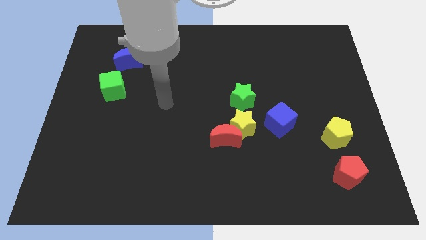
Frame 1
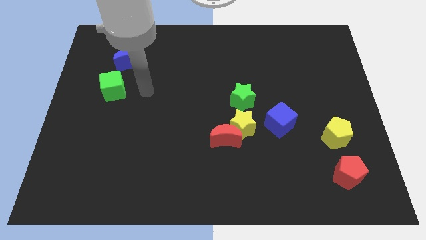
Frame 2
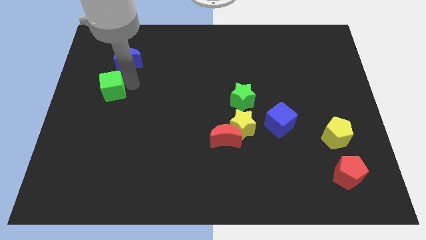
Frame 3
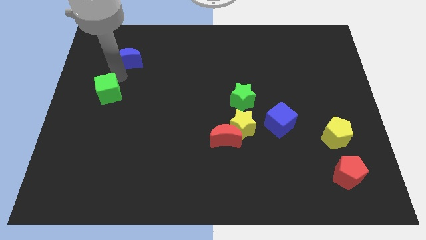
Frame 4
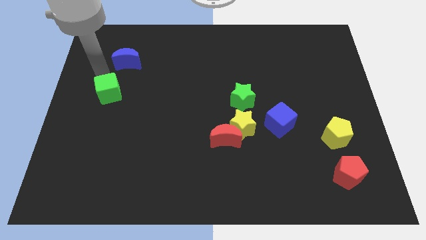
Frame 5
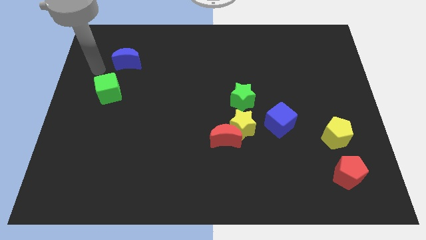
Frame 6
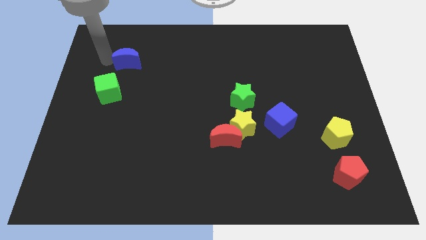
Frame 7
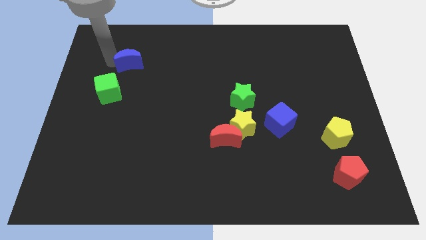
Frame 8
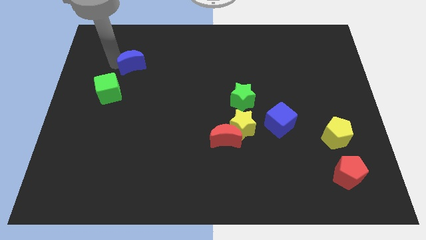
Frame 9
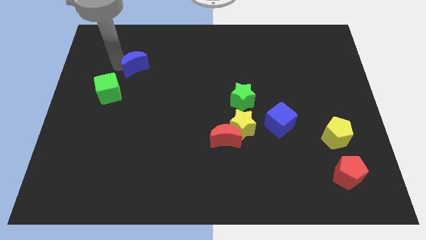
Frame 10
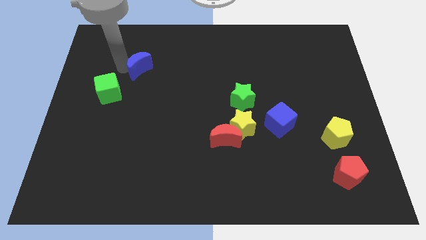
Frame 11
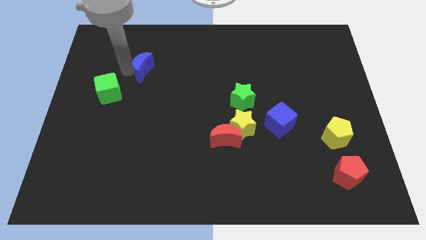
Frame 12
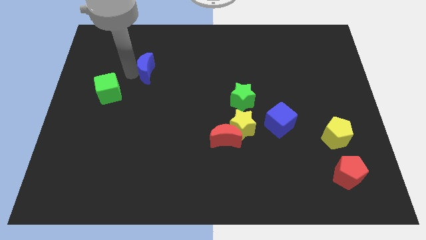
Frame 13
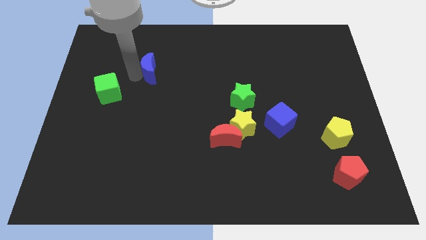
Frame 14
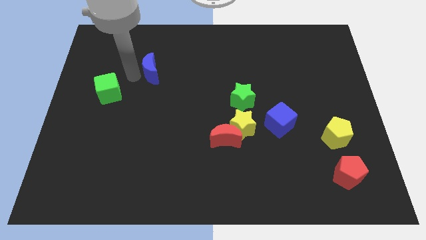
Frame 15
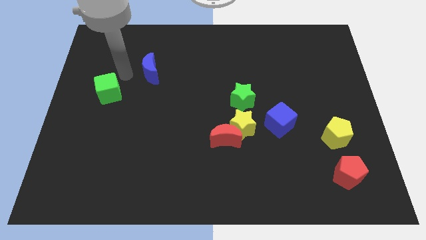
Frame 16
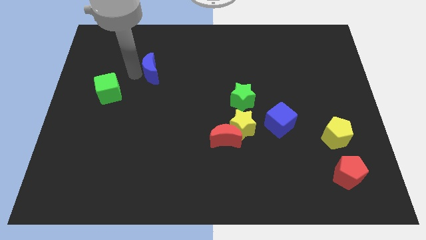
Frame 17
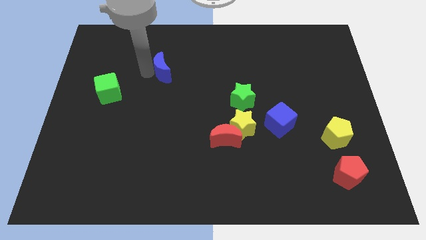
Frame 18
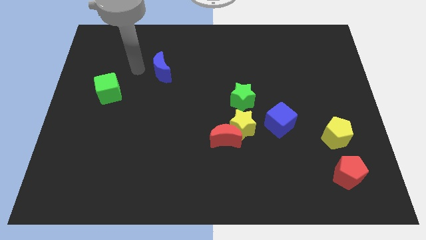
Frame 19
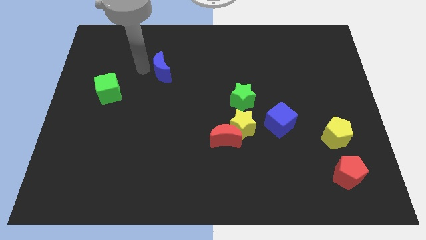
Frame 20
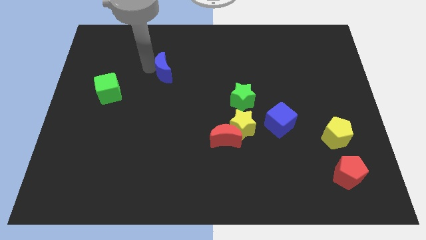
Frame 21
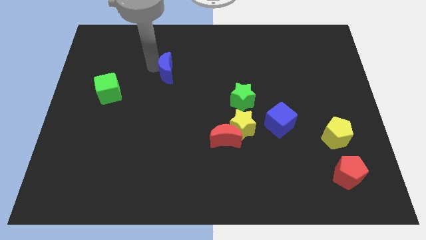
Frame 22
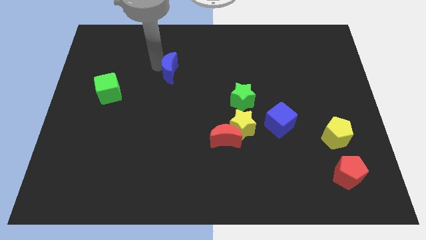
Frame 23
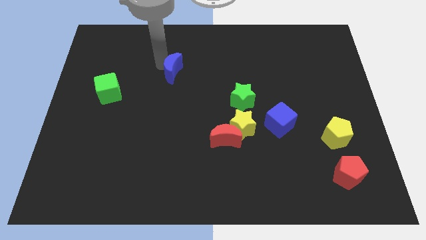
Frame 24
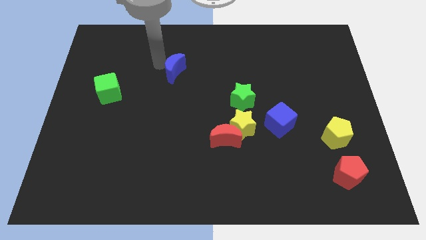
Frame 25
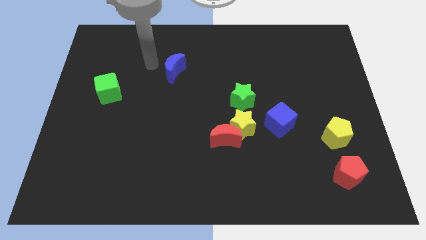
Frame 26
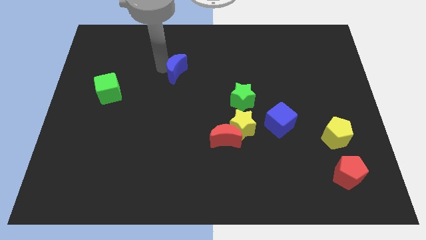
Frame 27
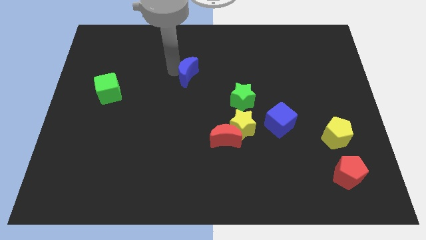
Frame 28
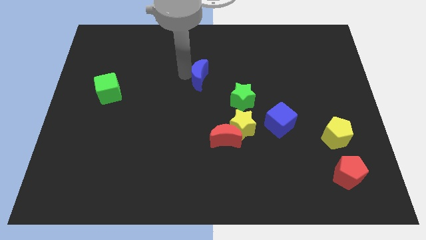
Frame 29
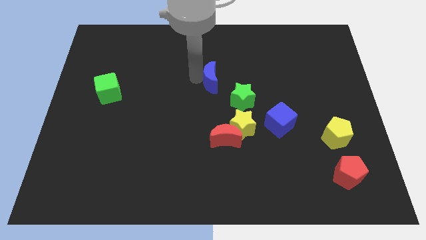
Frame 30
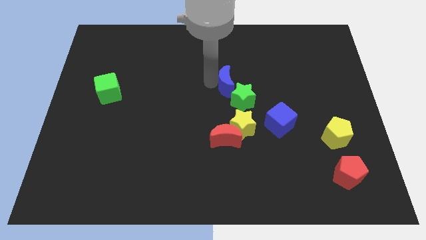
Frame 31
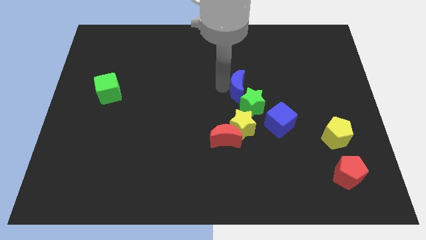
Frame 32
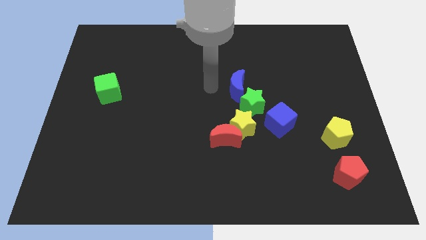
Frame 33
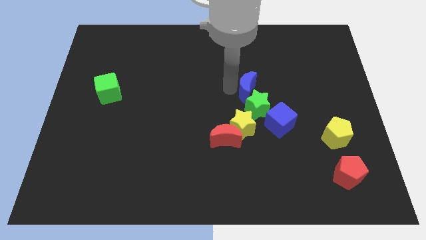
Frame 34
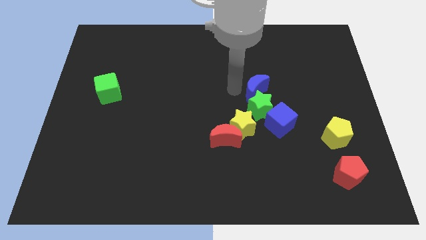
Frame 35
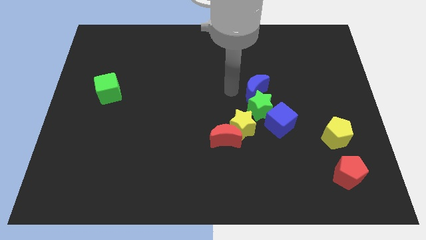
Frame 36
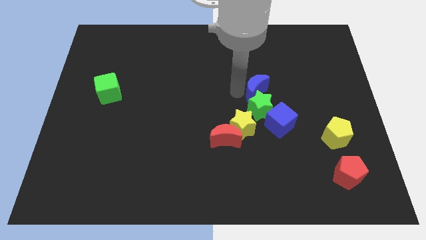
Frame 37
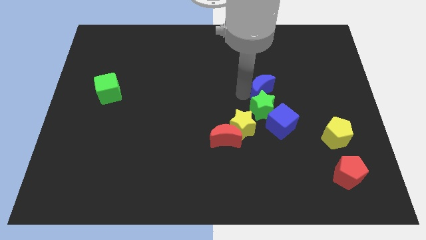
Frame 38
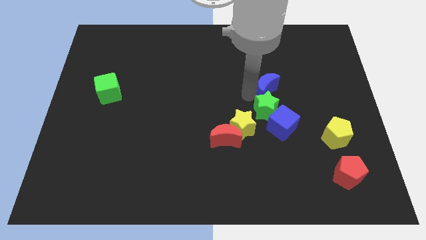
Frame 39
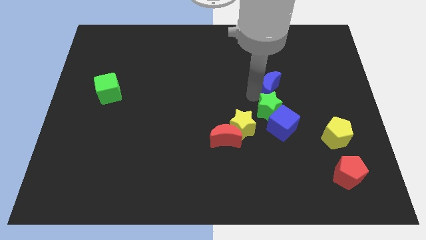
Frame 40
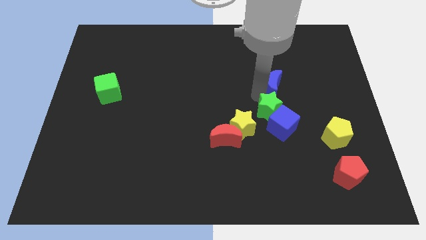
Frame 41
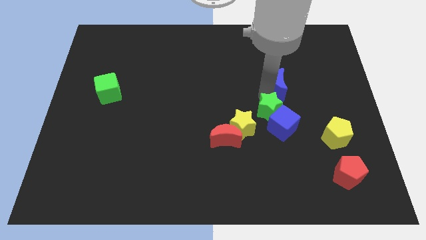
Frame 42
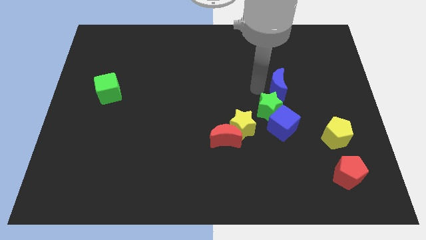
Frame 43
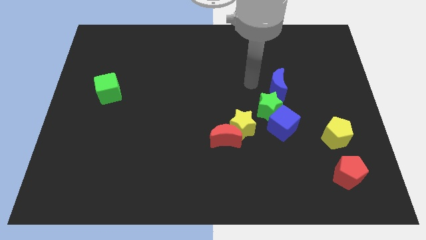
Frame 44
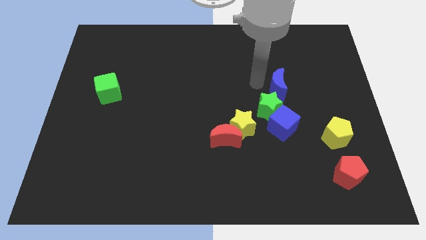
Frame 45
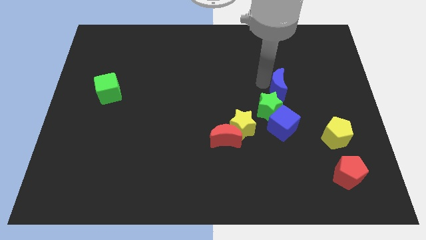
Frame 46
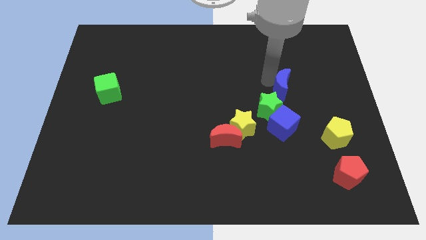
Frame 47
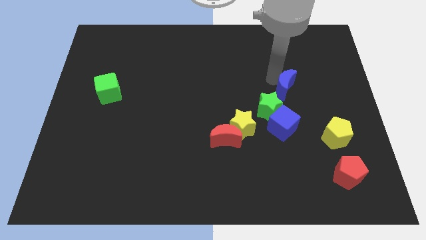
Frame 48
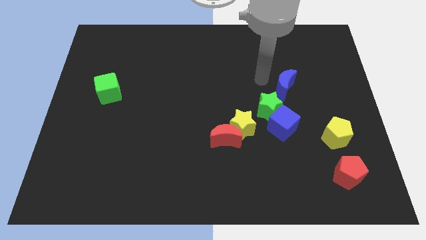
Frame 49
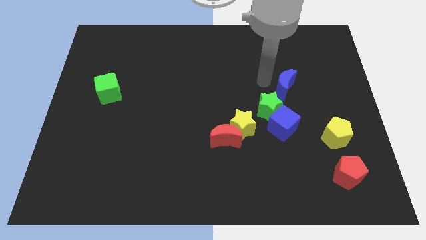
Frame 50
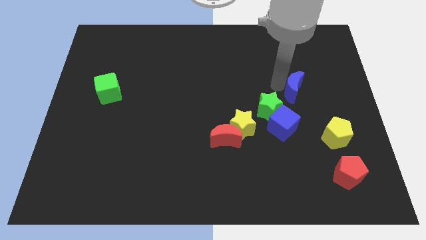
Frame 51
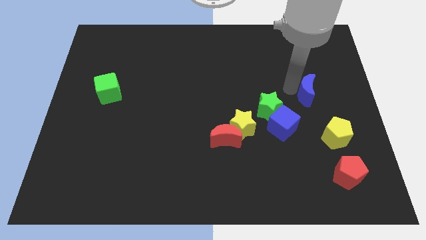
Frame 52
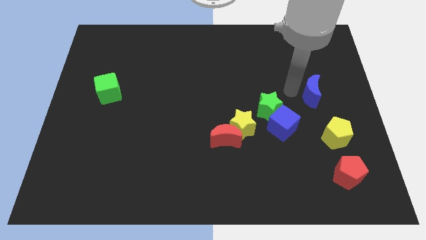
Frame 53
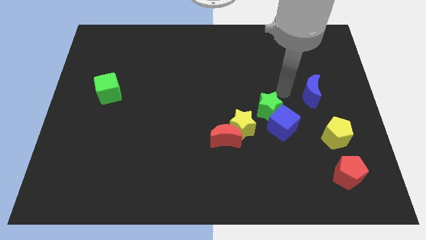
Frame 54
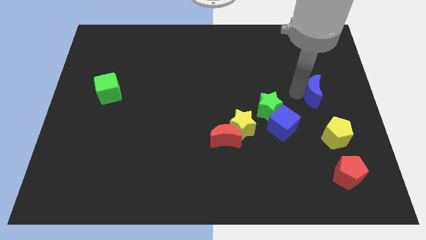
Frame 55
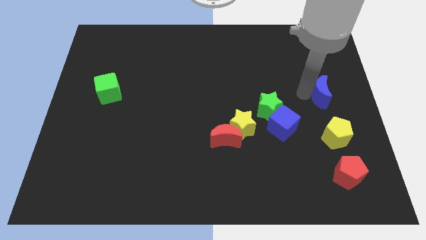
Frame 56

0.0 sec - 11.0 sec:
slide the blue moon to the right side

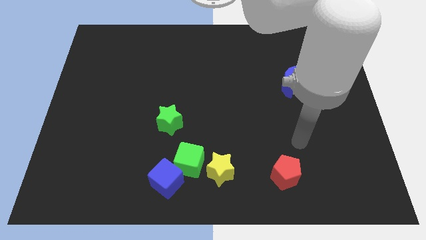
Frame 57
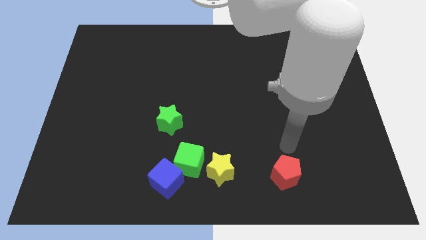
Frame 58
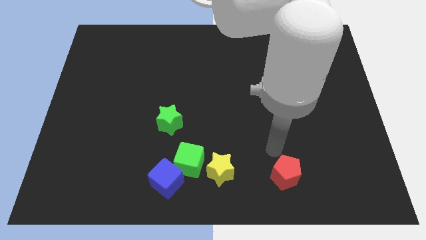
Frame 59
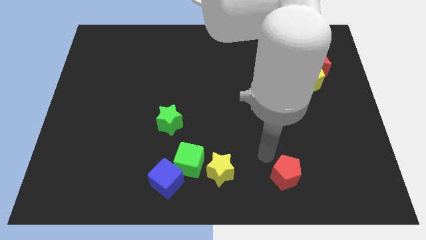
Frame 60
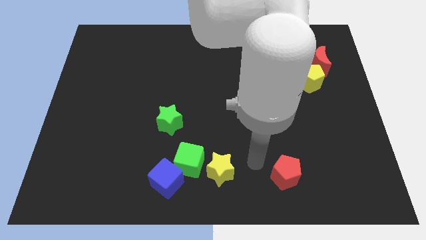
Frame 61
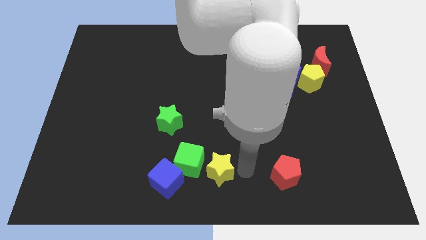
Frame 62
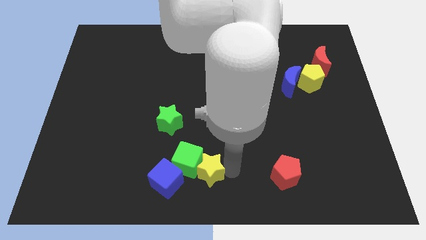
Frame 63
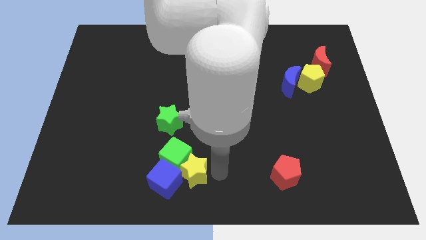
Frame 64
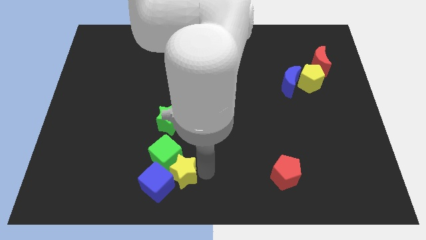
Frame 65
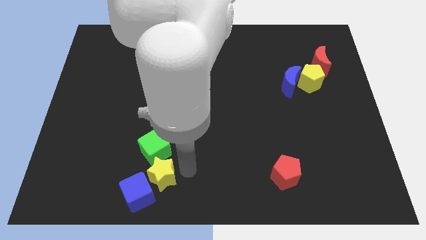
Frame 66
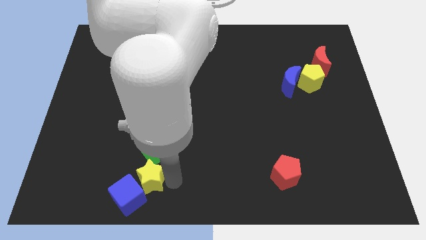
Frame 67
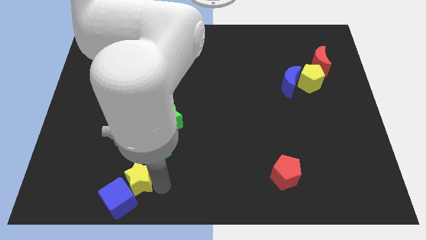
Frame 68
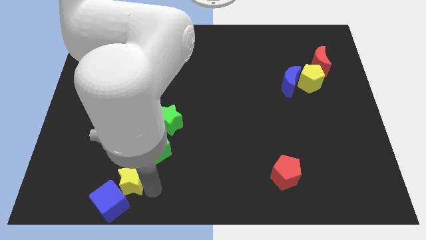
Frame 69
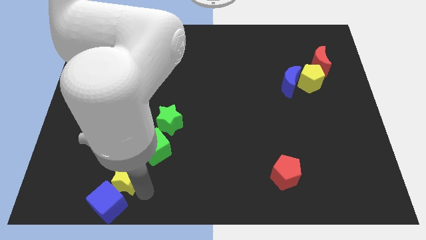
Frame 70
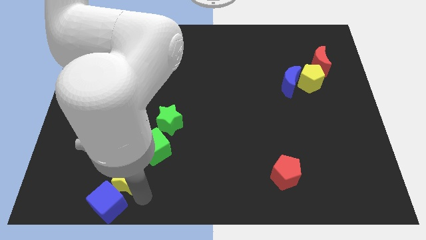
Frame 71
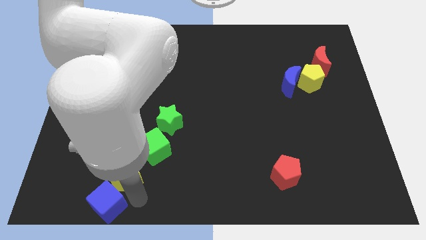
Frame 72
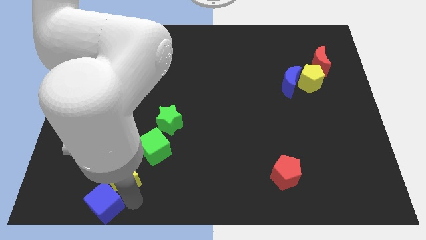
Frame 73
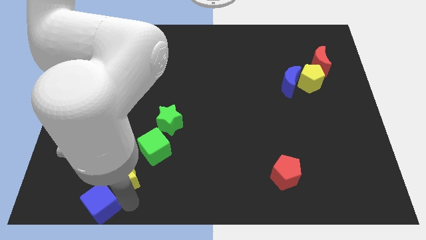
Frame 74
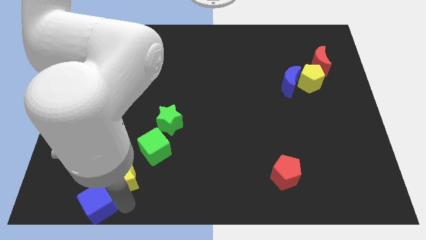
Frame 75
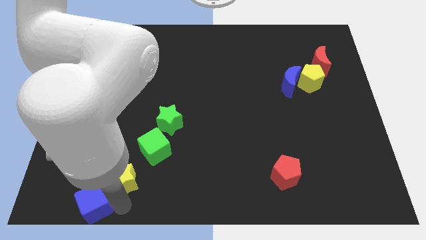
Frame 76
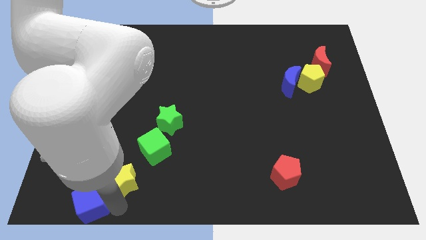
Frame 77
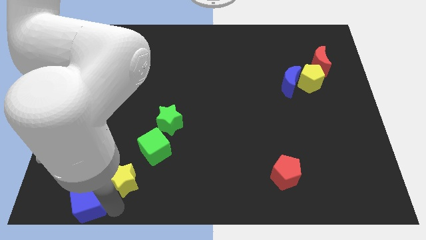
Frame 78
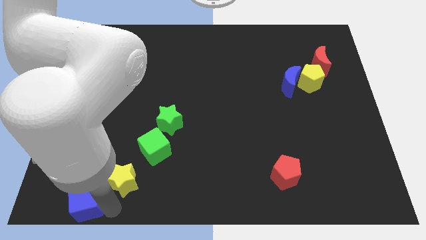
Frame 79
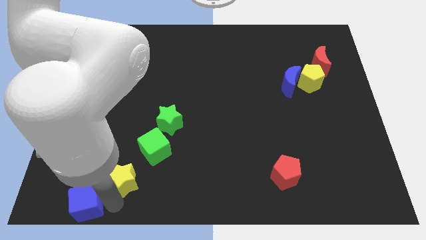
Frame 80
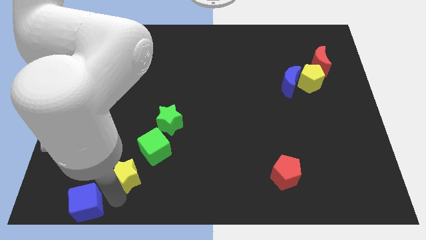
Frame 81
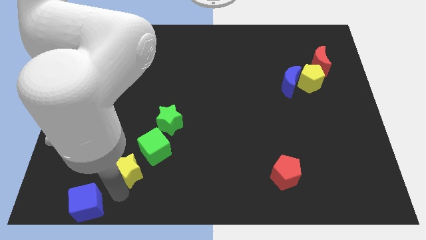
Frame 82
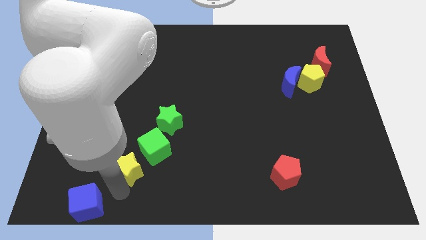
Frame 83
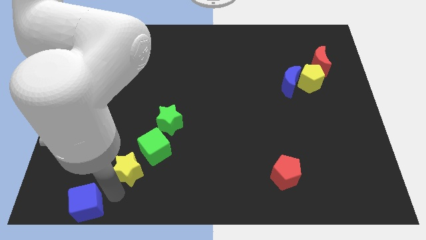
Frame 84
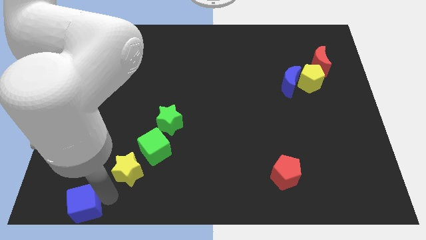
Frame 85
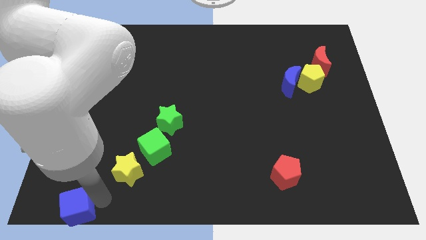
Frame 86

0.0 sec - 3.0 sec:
move the blue cube to the lower left corner
